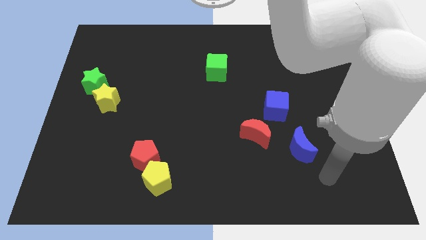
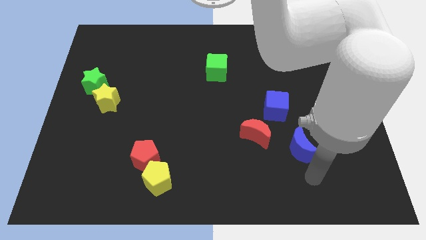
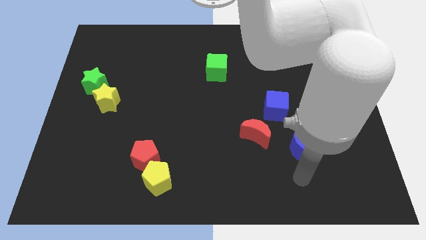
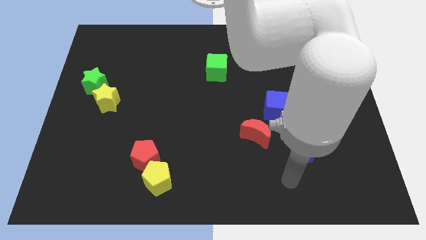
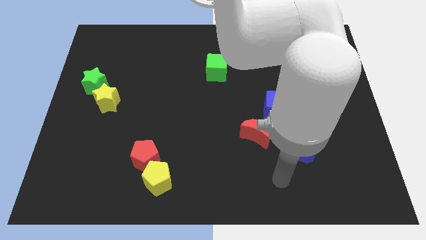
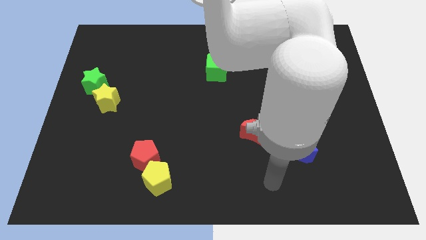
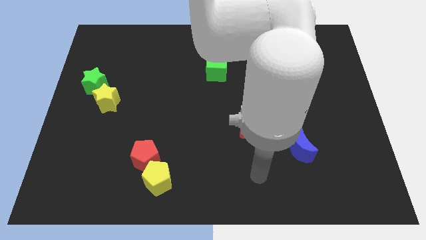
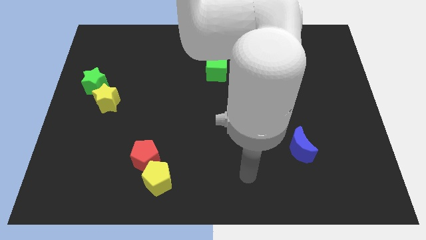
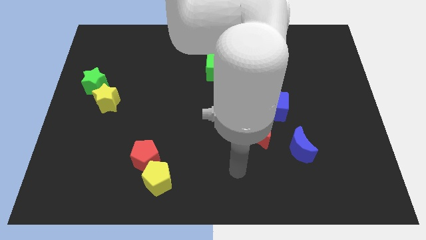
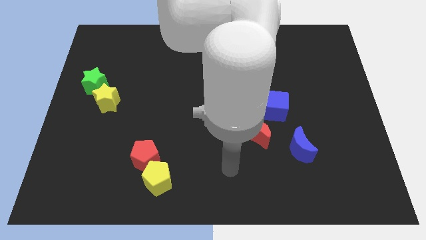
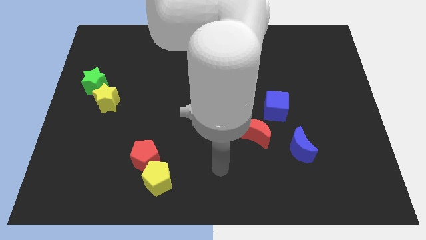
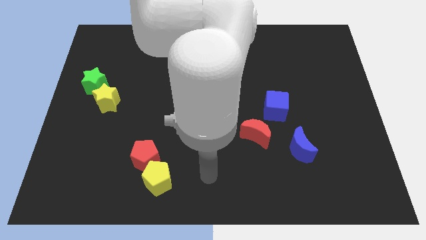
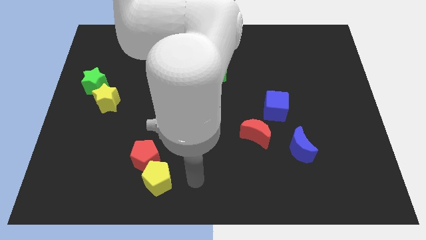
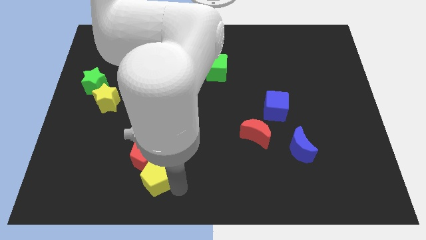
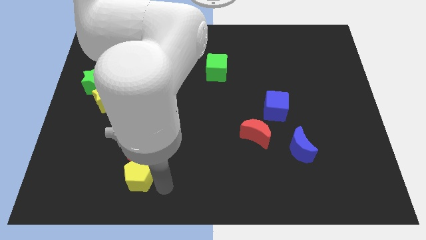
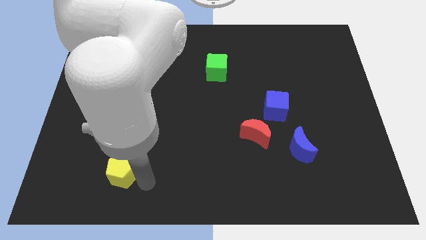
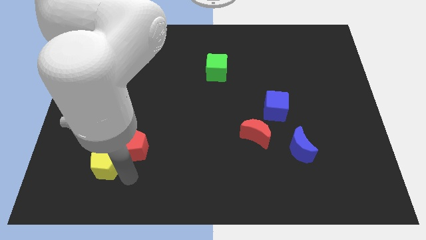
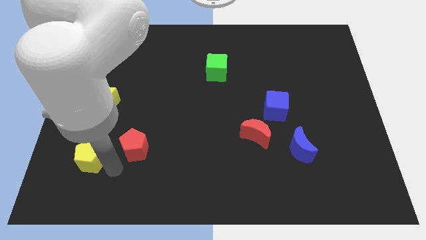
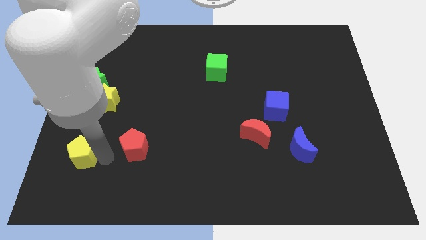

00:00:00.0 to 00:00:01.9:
pull the red pentagon apart from the yellow pentagon

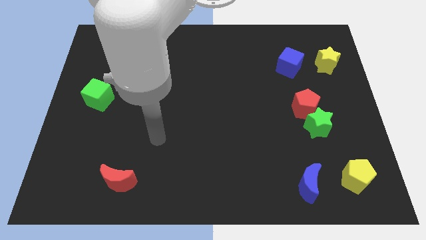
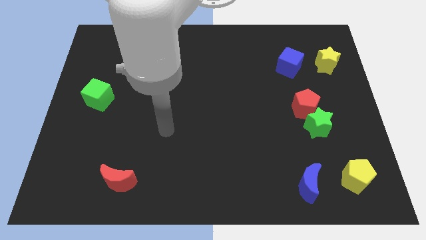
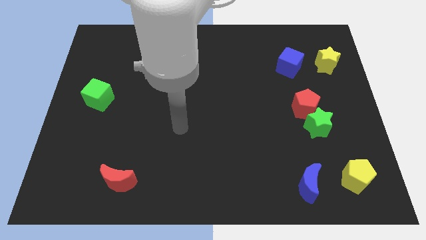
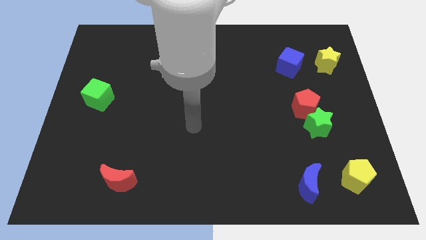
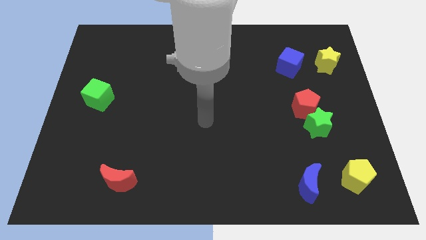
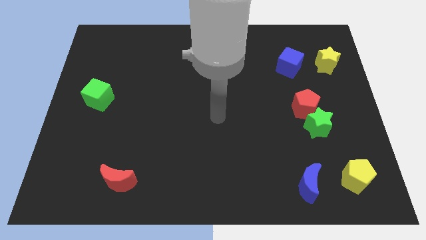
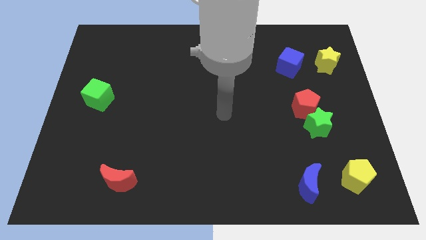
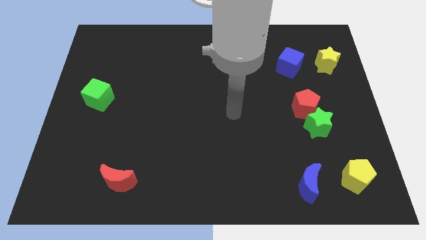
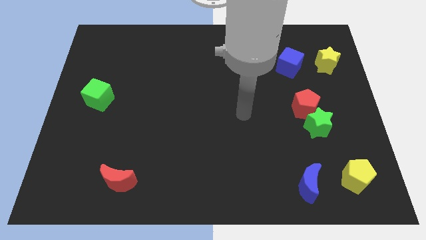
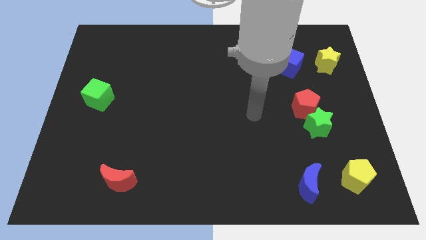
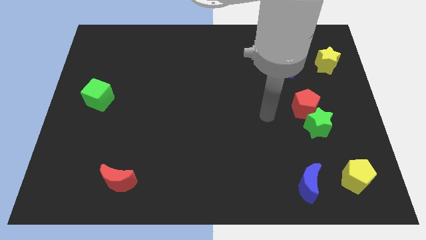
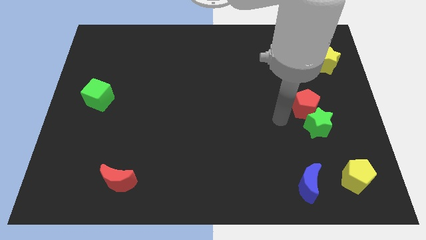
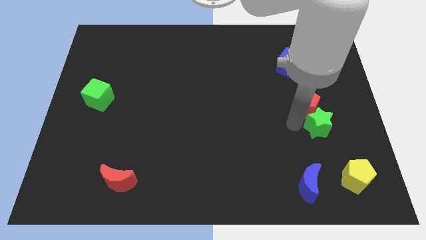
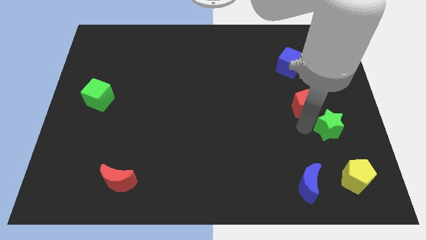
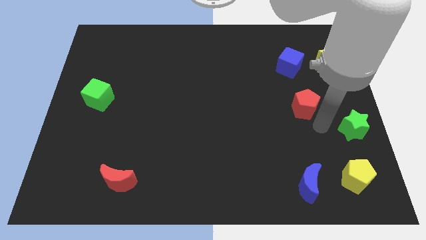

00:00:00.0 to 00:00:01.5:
move the red pentagon away from the green star

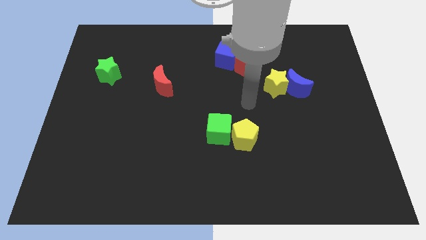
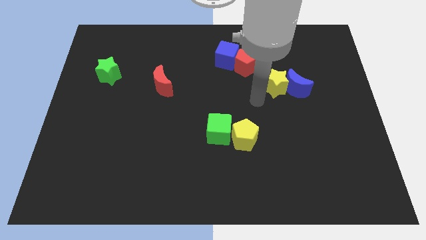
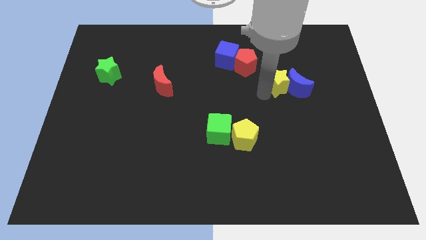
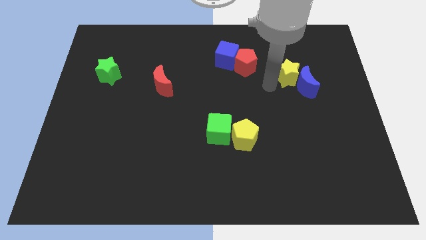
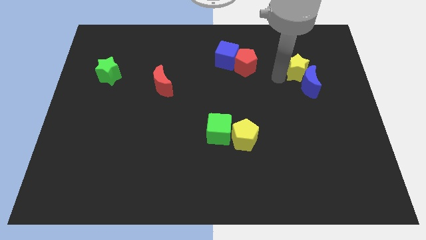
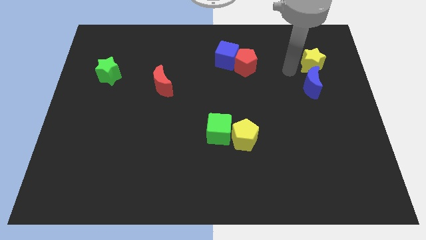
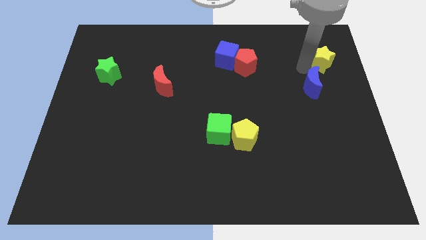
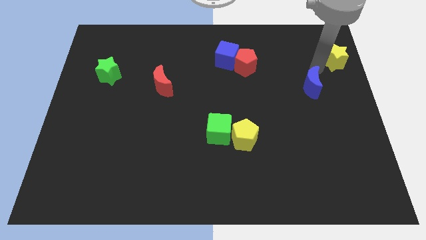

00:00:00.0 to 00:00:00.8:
pull the blue moon apart from the yellow star

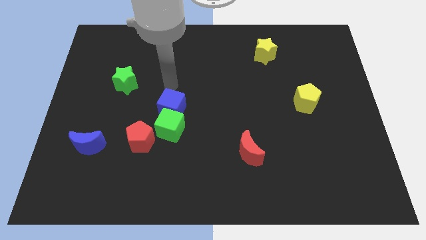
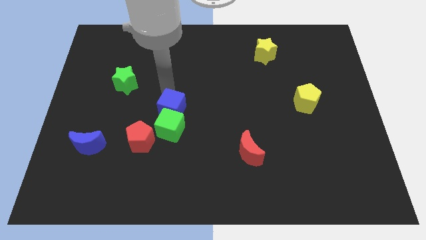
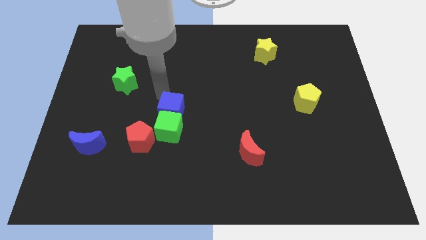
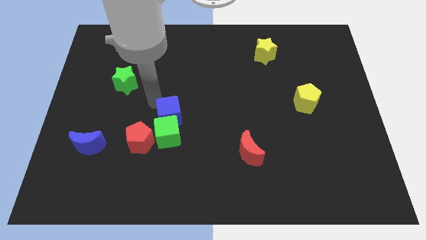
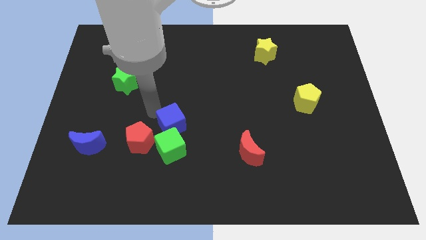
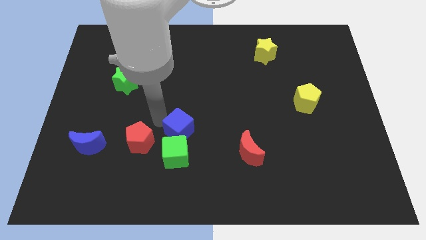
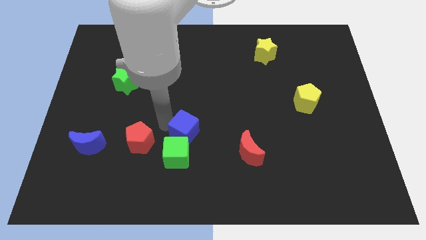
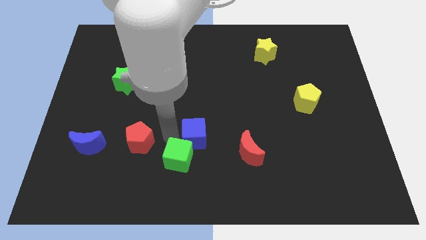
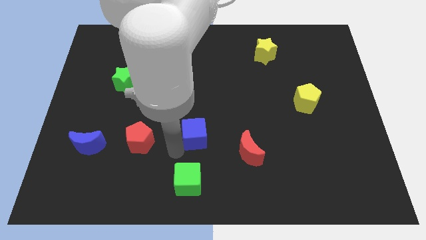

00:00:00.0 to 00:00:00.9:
move the blue cube away from the green cube

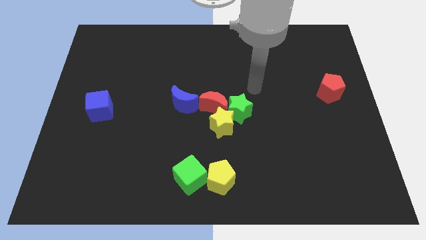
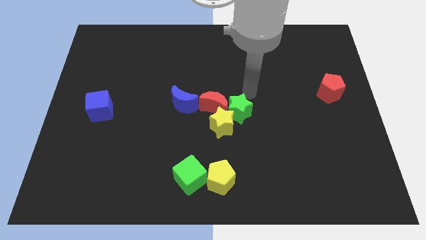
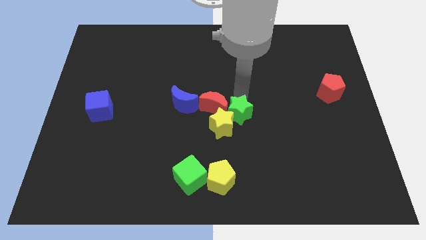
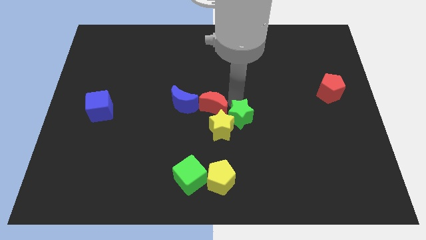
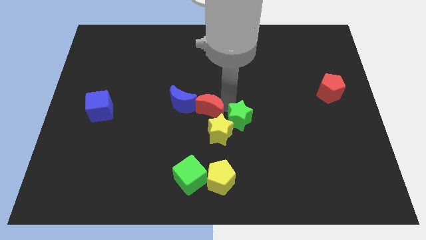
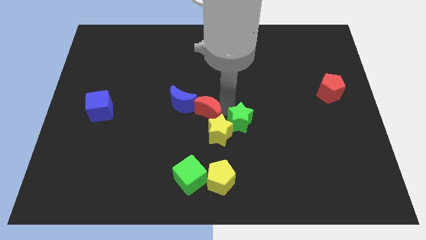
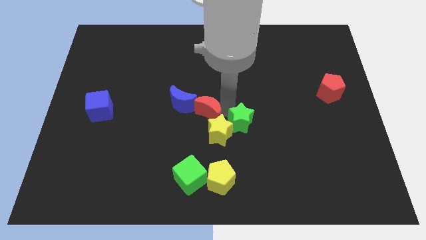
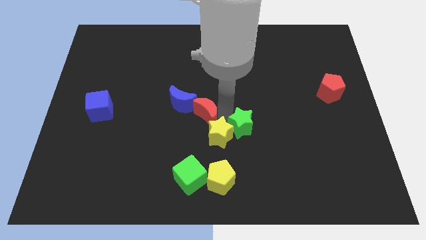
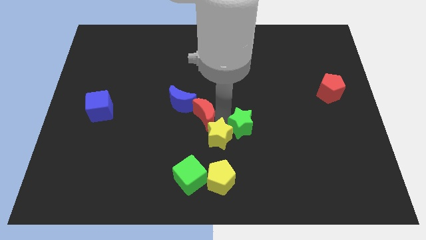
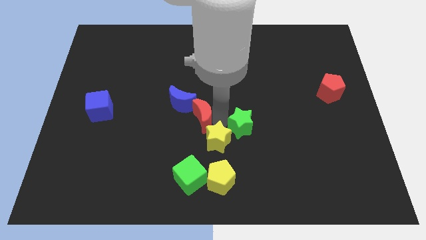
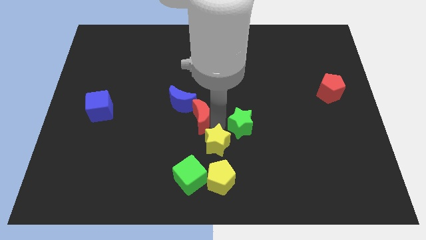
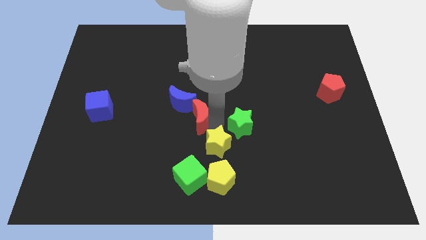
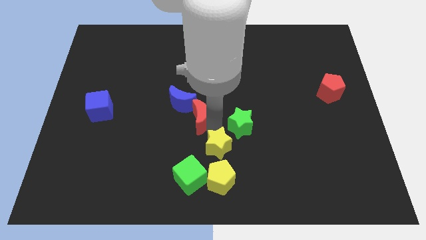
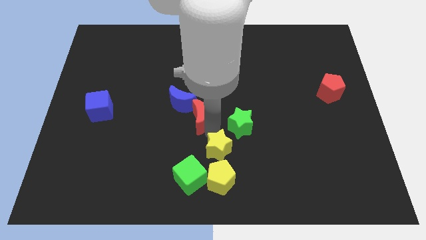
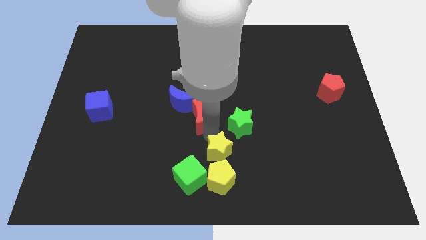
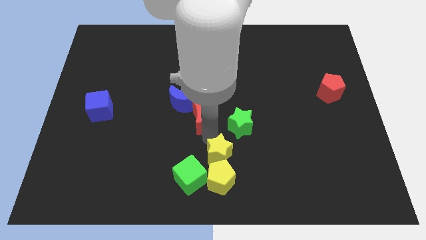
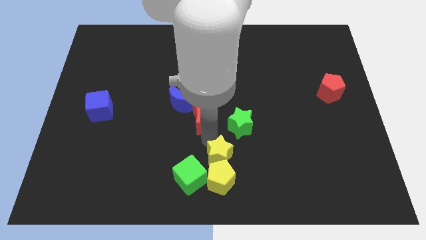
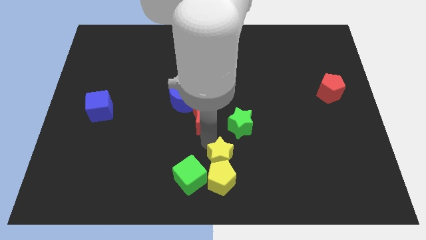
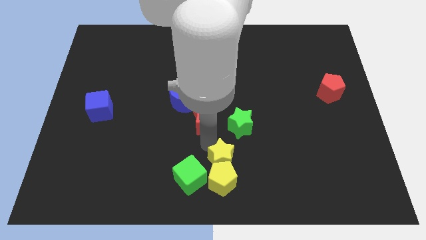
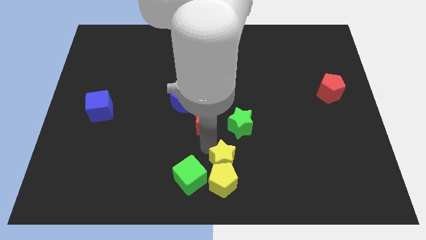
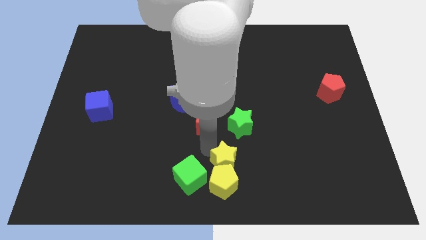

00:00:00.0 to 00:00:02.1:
pull the yellow star apart from the green star and red moon

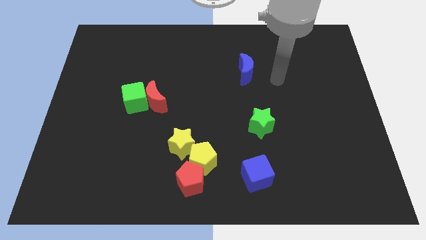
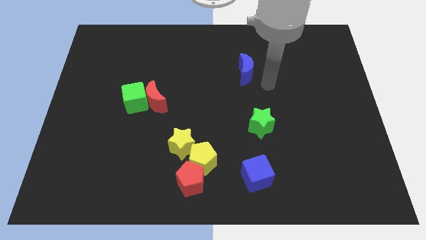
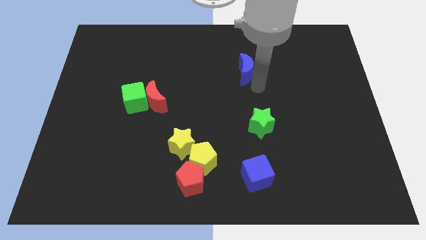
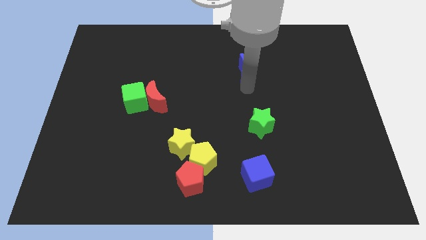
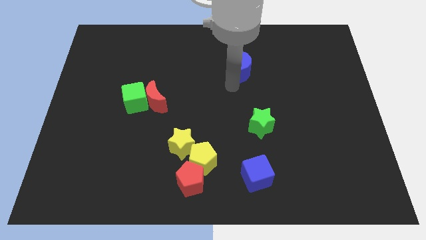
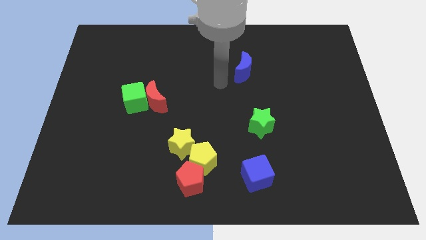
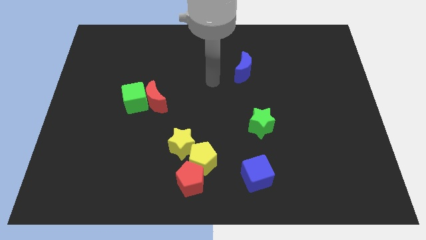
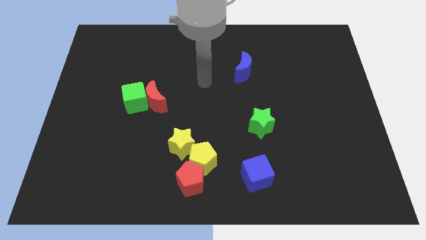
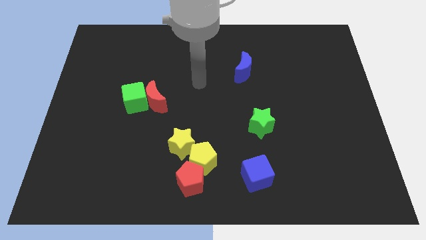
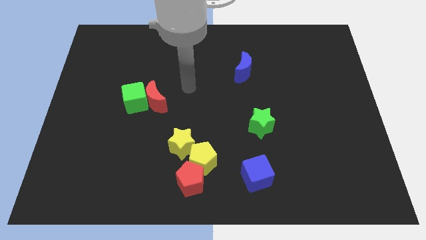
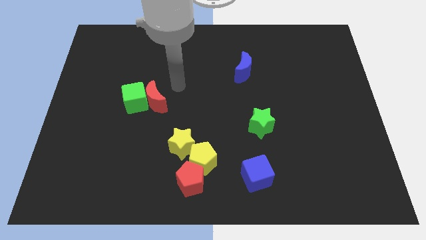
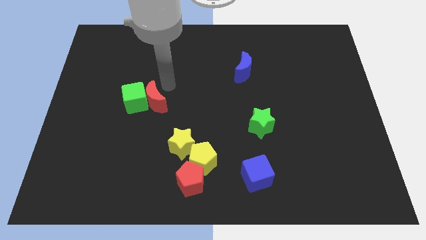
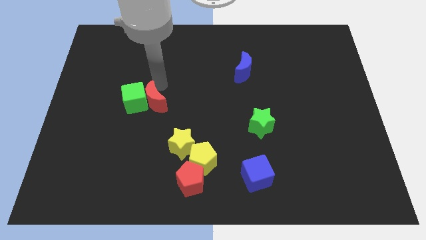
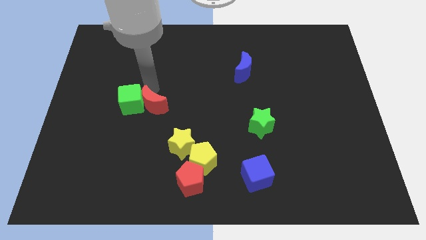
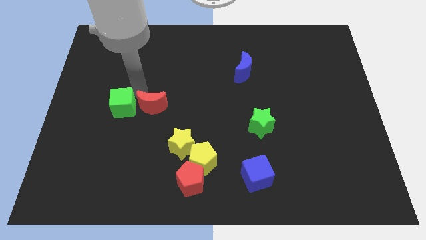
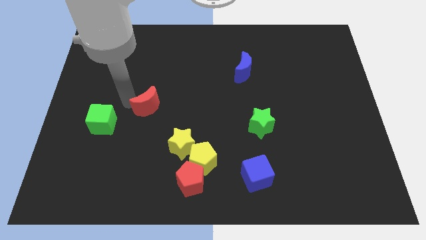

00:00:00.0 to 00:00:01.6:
pull the red moon apart from the green cube

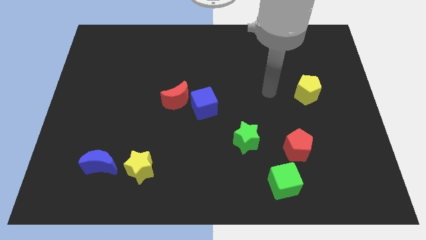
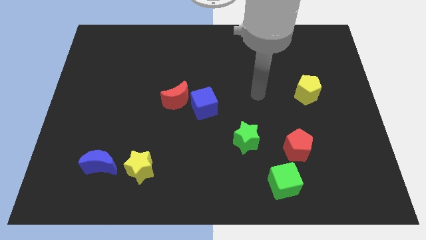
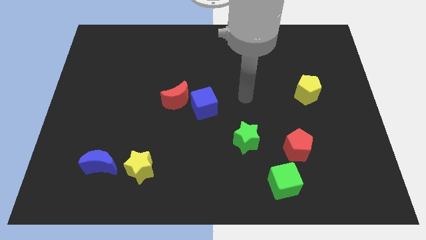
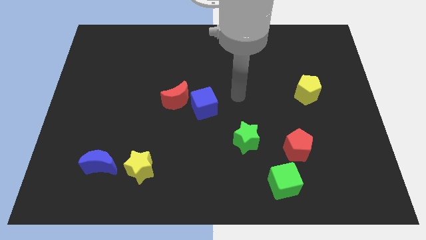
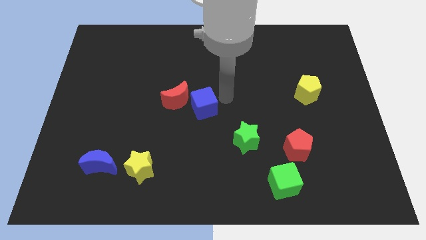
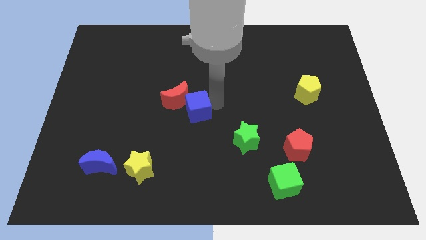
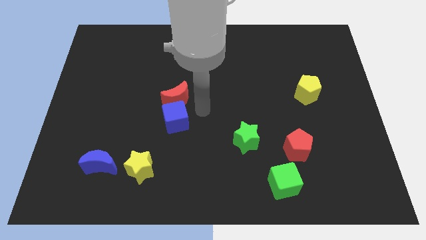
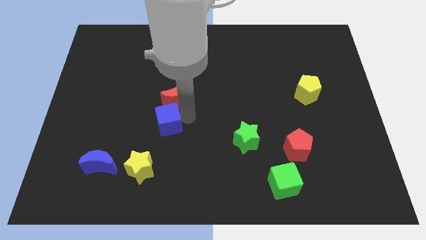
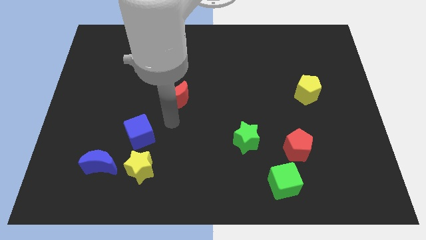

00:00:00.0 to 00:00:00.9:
pull the red moon apart from the blue cube
